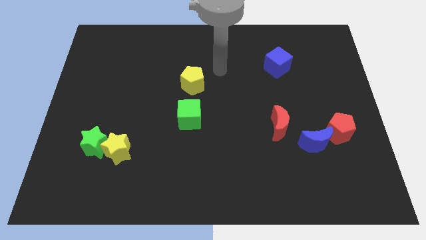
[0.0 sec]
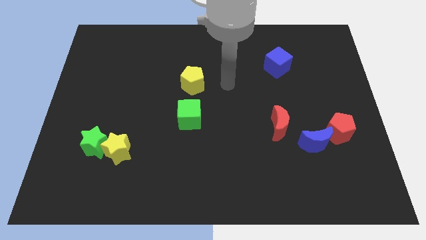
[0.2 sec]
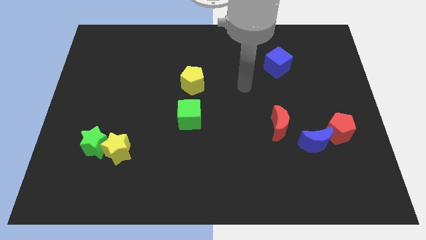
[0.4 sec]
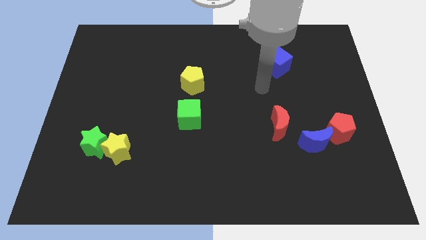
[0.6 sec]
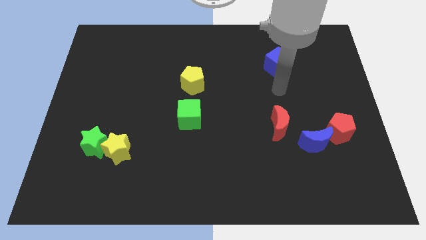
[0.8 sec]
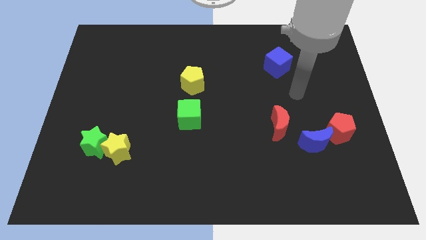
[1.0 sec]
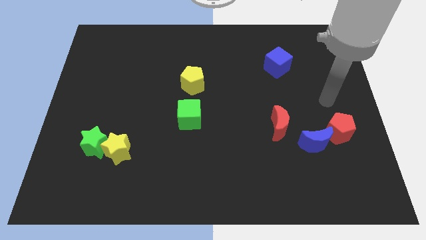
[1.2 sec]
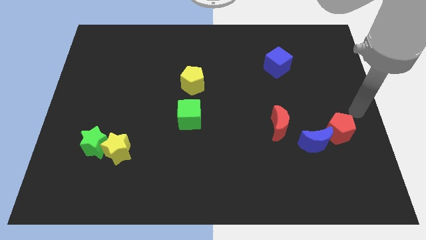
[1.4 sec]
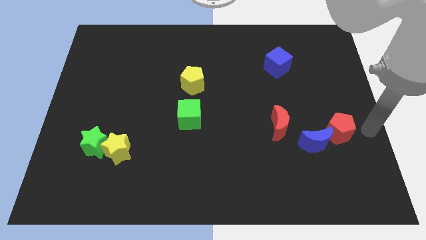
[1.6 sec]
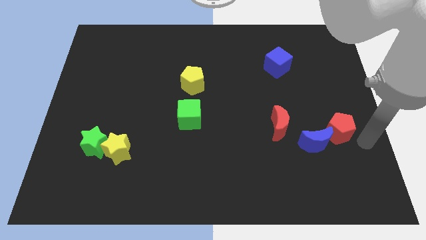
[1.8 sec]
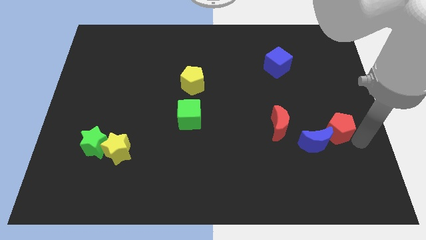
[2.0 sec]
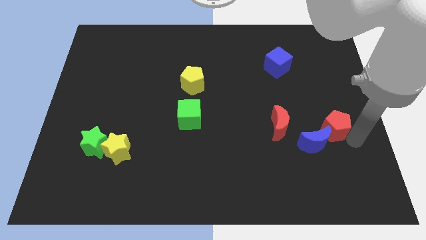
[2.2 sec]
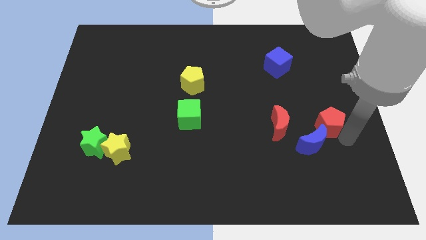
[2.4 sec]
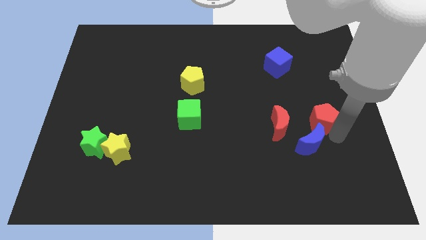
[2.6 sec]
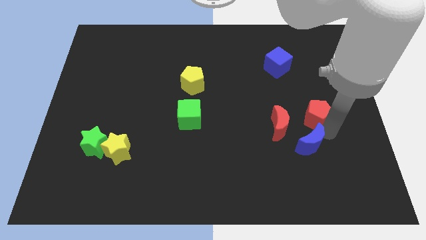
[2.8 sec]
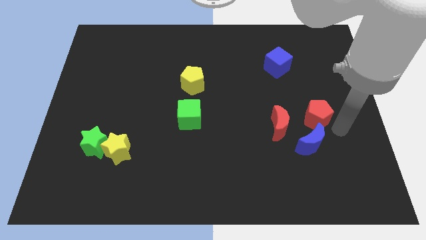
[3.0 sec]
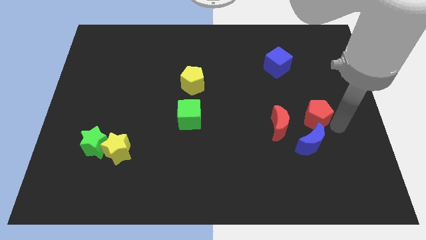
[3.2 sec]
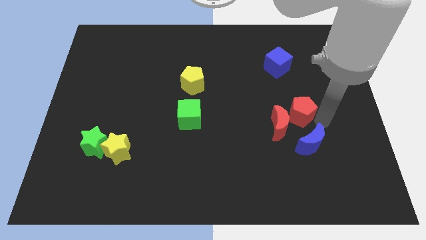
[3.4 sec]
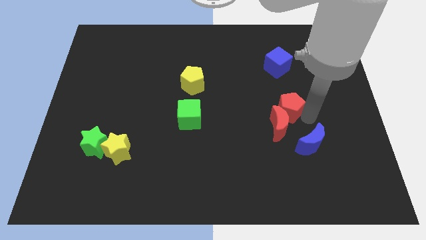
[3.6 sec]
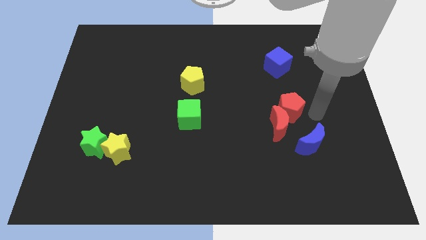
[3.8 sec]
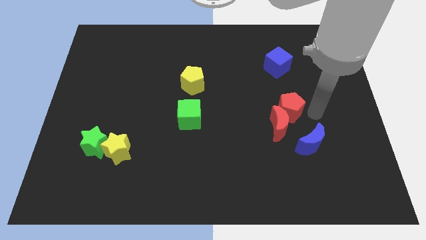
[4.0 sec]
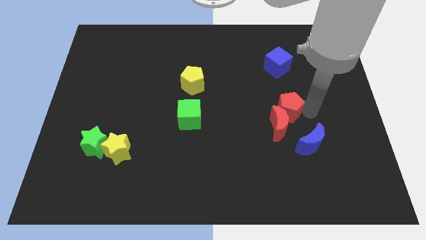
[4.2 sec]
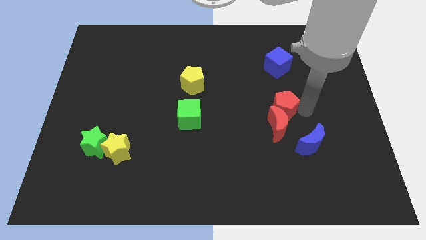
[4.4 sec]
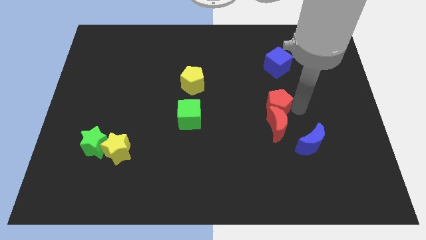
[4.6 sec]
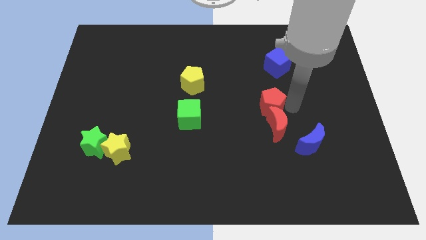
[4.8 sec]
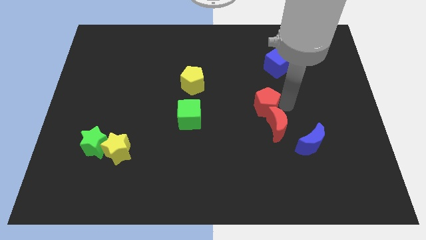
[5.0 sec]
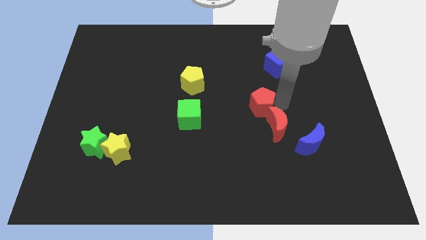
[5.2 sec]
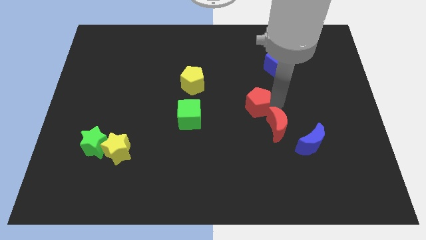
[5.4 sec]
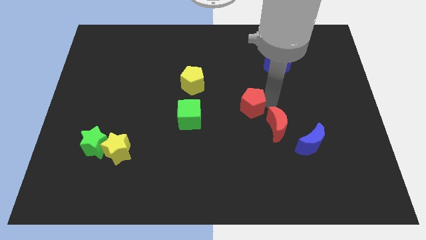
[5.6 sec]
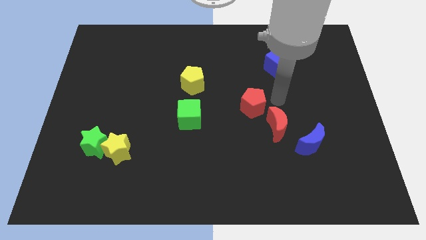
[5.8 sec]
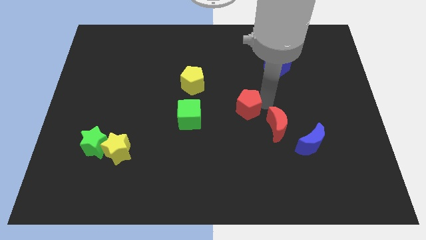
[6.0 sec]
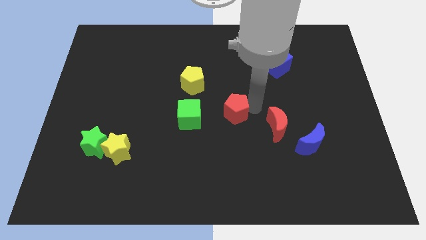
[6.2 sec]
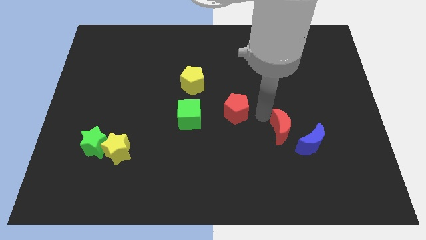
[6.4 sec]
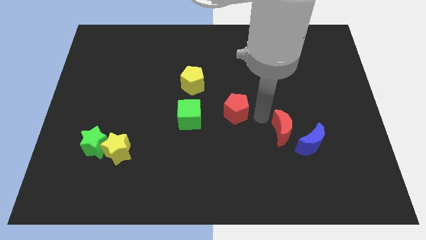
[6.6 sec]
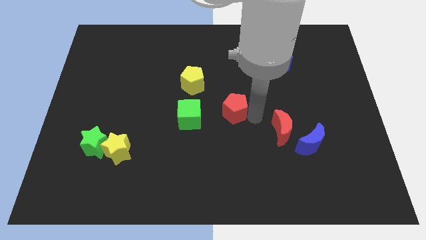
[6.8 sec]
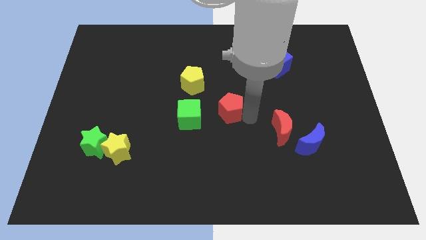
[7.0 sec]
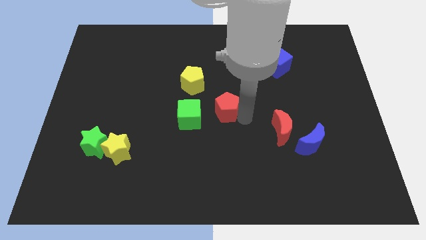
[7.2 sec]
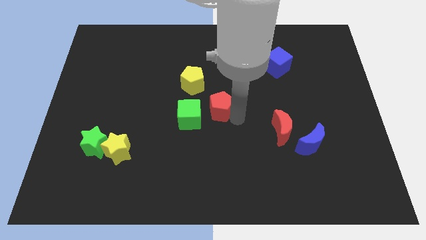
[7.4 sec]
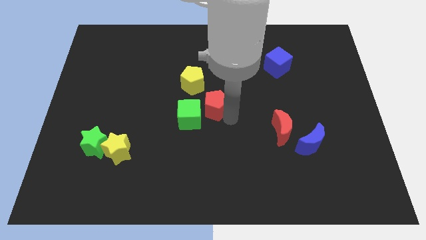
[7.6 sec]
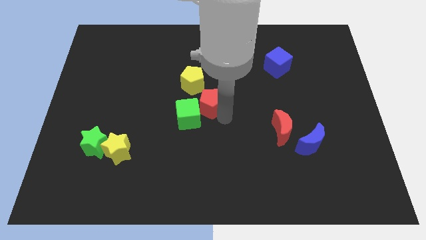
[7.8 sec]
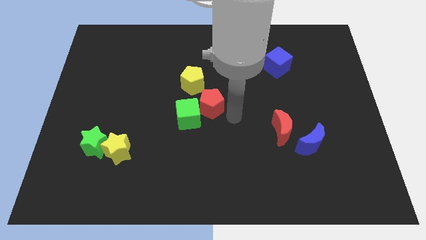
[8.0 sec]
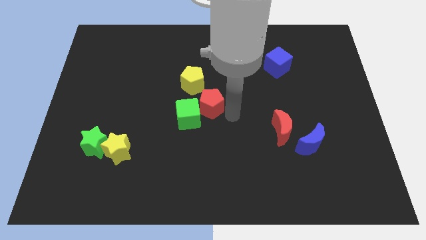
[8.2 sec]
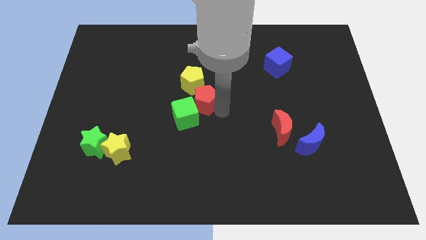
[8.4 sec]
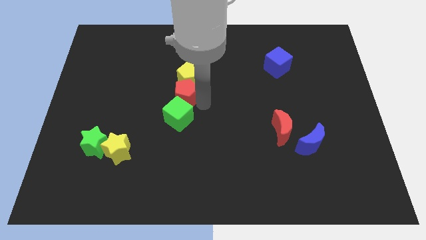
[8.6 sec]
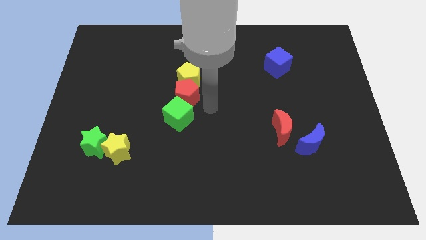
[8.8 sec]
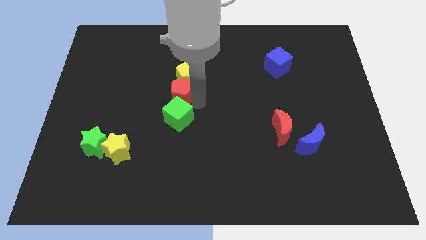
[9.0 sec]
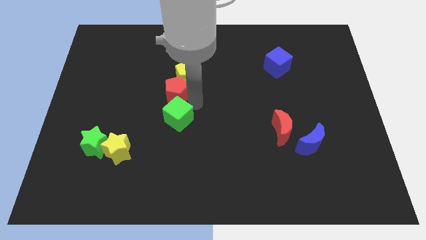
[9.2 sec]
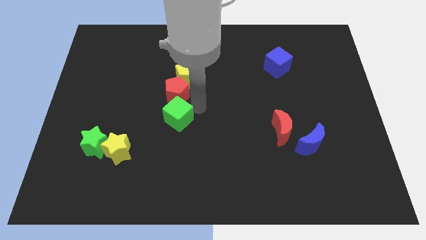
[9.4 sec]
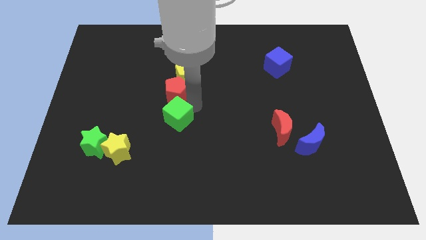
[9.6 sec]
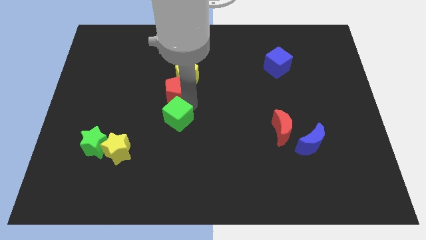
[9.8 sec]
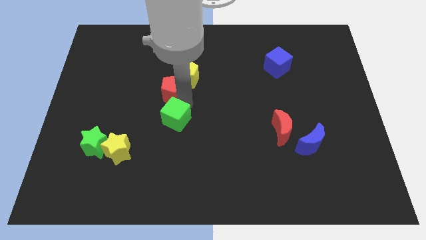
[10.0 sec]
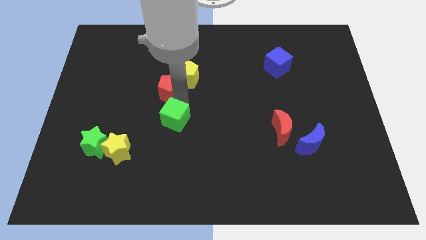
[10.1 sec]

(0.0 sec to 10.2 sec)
push the red pentagon to the left of the yellow pentagon

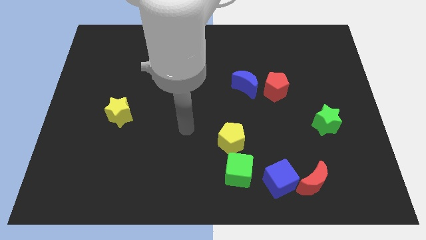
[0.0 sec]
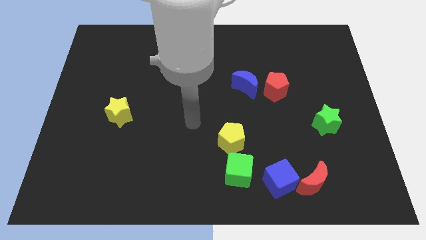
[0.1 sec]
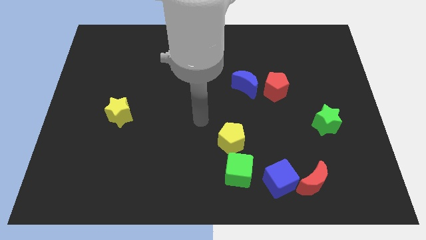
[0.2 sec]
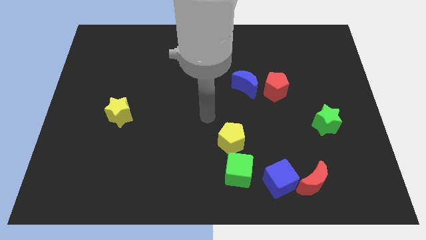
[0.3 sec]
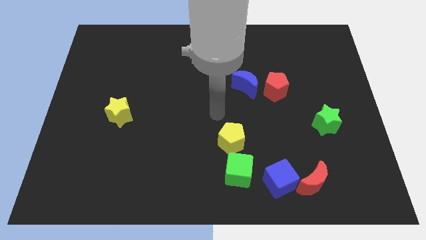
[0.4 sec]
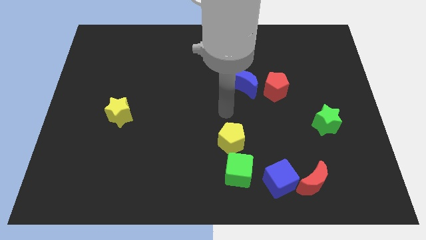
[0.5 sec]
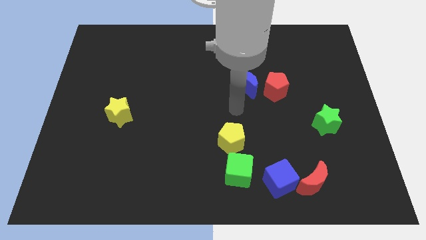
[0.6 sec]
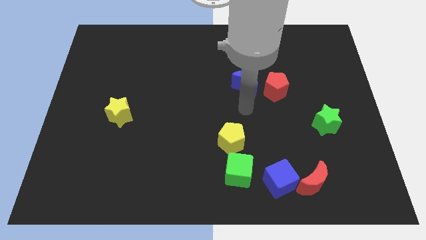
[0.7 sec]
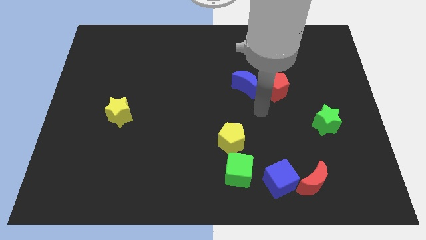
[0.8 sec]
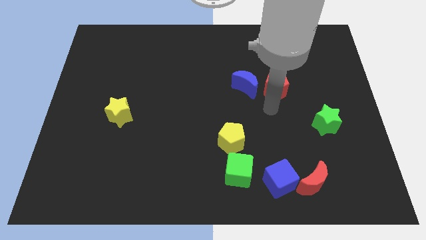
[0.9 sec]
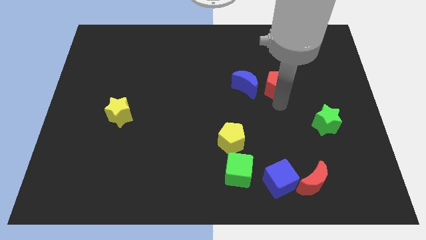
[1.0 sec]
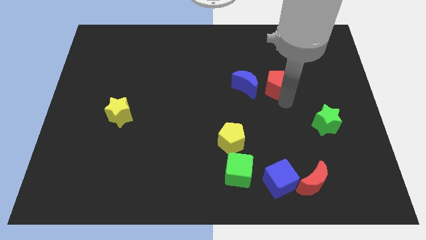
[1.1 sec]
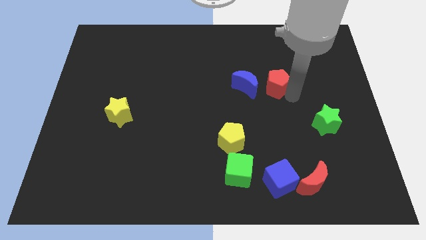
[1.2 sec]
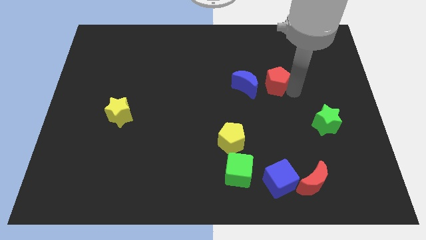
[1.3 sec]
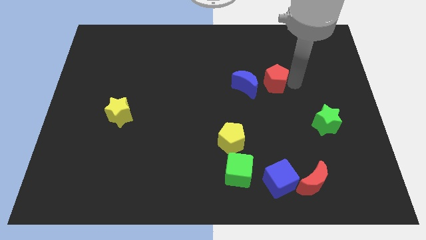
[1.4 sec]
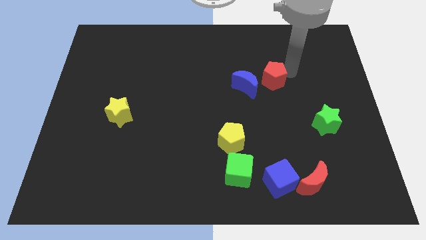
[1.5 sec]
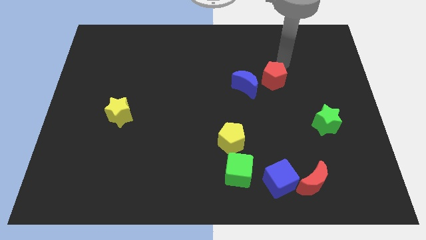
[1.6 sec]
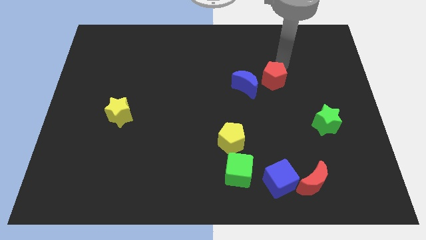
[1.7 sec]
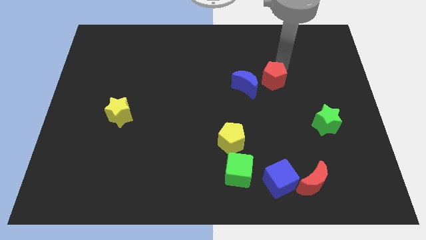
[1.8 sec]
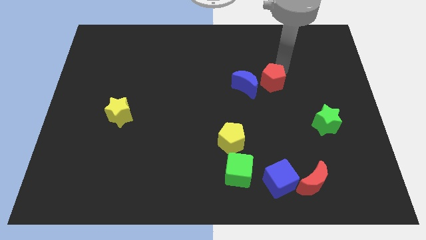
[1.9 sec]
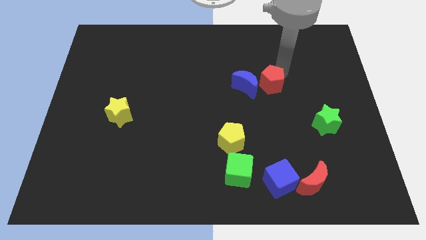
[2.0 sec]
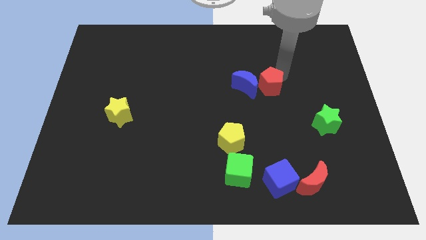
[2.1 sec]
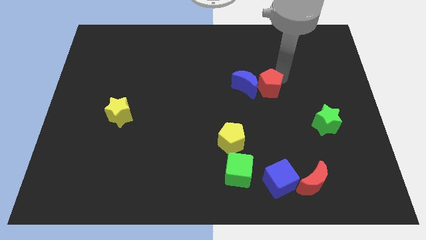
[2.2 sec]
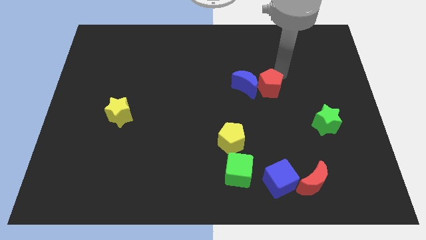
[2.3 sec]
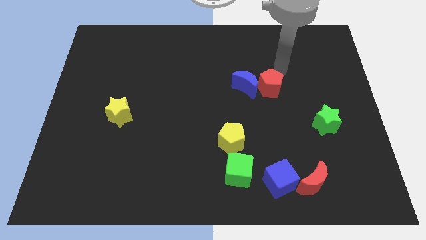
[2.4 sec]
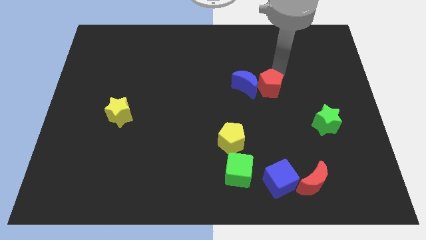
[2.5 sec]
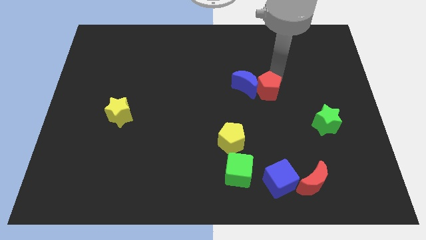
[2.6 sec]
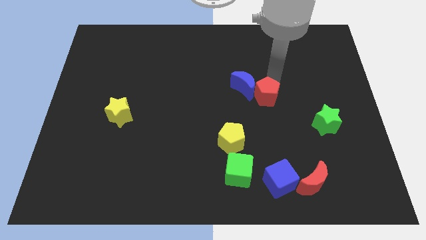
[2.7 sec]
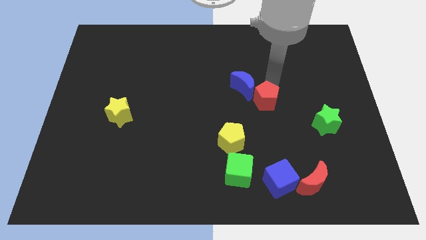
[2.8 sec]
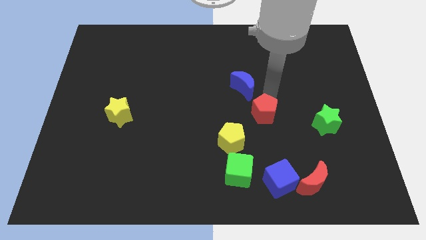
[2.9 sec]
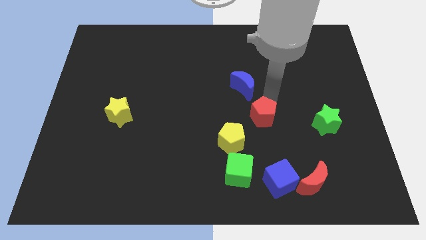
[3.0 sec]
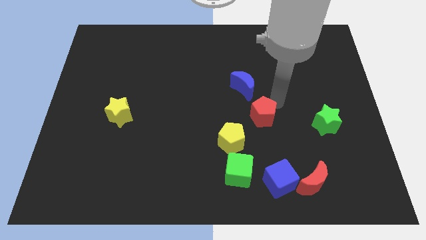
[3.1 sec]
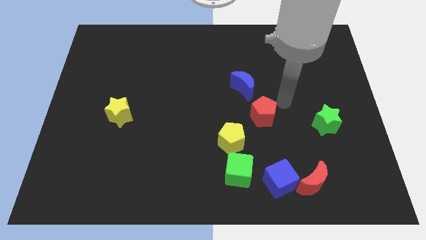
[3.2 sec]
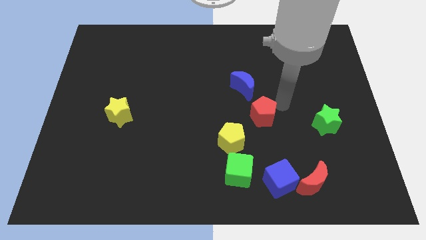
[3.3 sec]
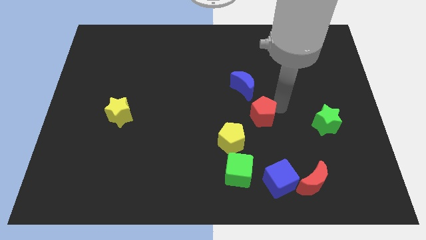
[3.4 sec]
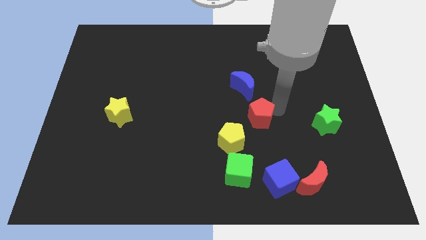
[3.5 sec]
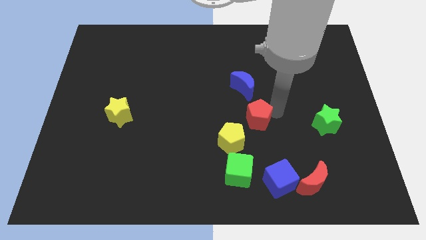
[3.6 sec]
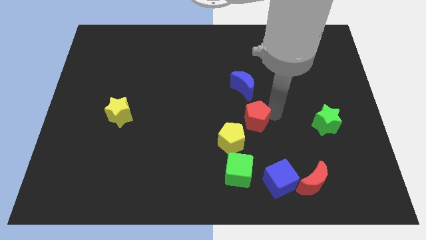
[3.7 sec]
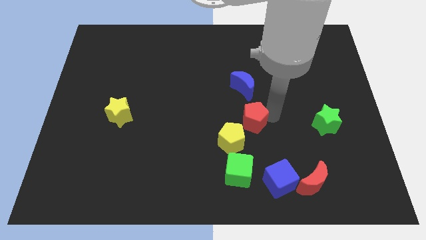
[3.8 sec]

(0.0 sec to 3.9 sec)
push the red pentagon above the green cube
